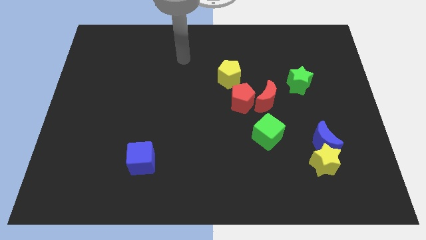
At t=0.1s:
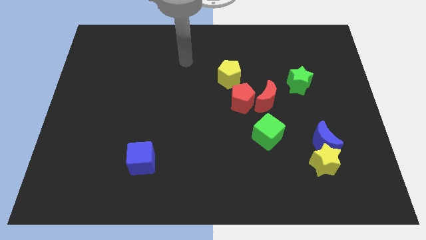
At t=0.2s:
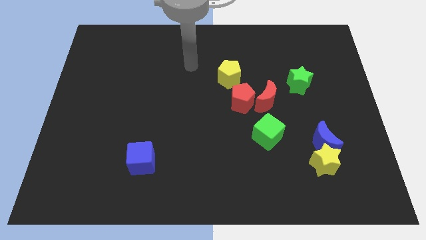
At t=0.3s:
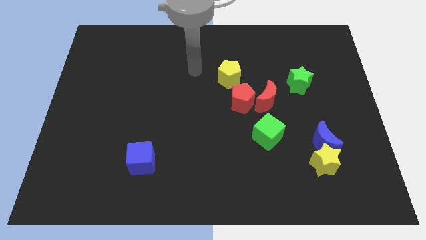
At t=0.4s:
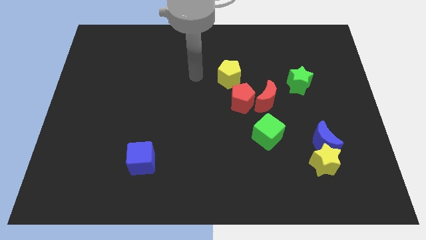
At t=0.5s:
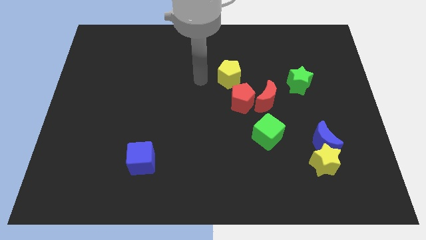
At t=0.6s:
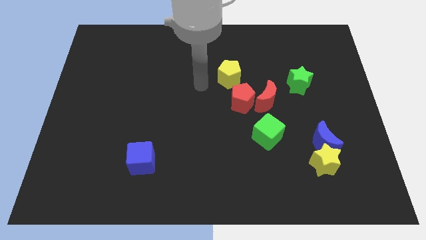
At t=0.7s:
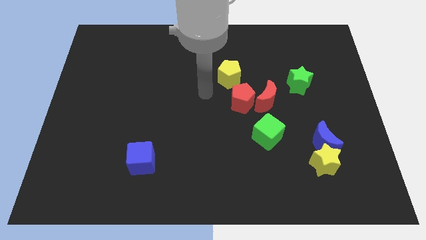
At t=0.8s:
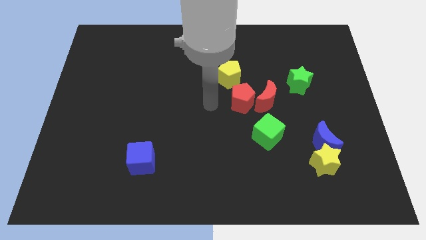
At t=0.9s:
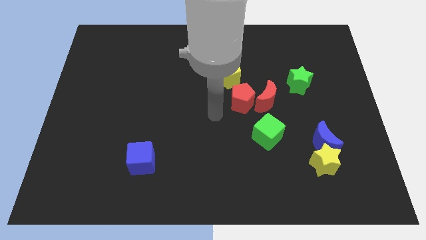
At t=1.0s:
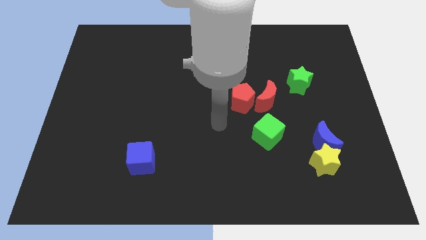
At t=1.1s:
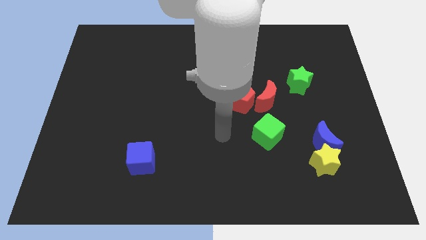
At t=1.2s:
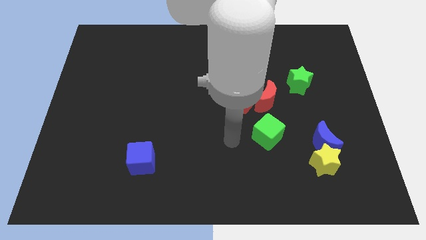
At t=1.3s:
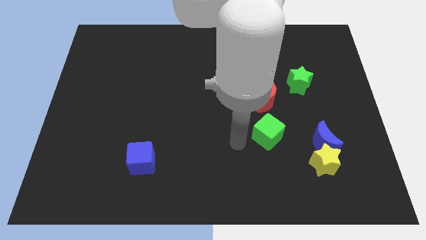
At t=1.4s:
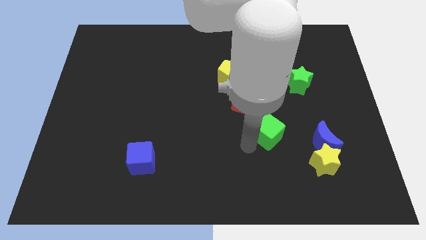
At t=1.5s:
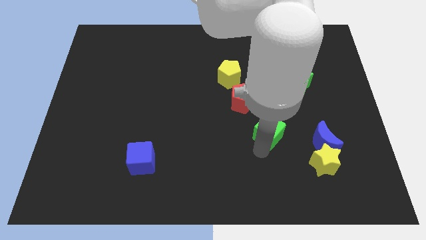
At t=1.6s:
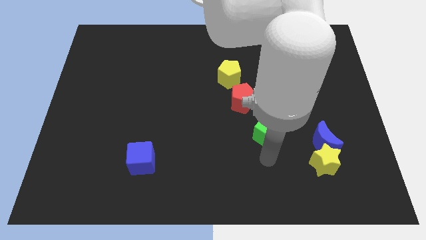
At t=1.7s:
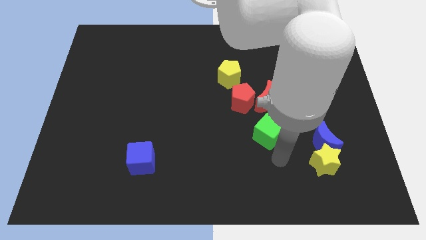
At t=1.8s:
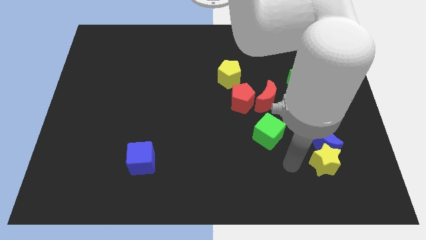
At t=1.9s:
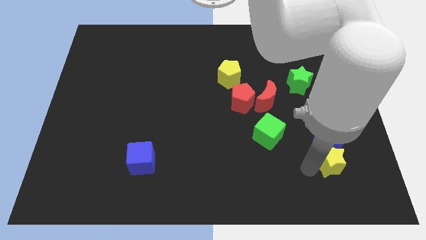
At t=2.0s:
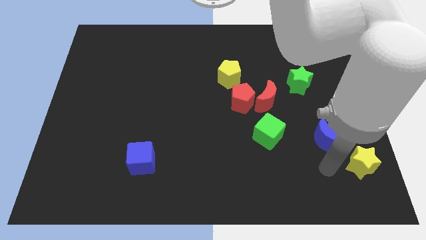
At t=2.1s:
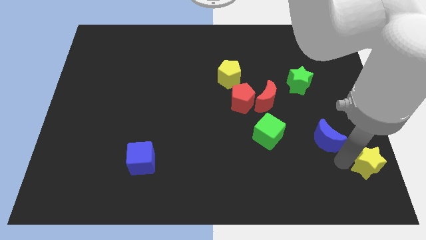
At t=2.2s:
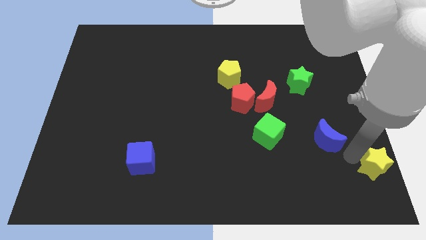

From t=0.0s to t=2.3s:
separate the blue moon from the yellow star

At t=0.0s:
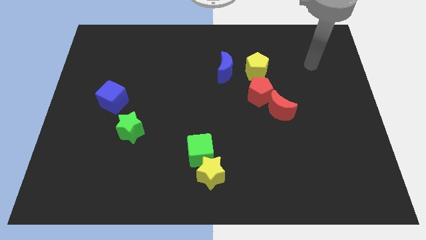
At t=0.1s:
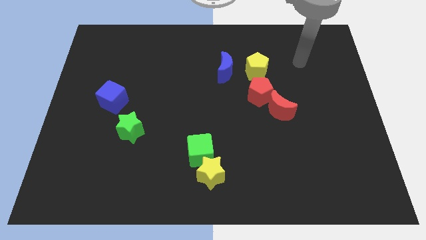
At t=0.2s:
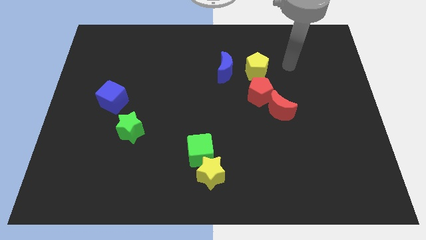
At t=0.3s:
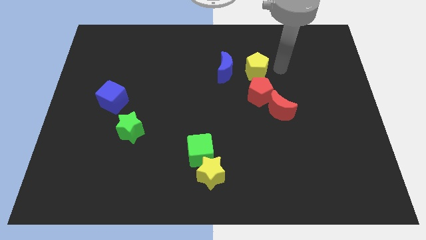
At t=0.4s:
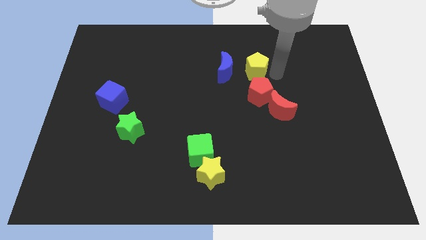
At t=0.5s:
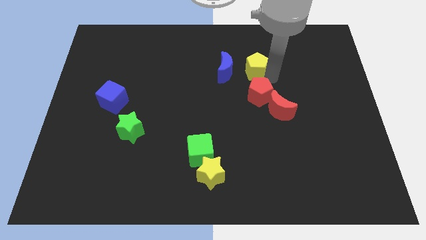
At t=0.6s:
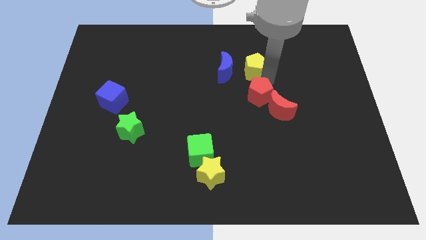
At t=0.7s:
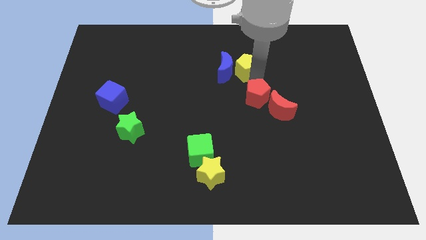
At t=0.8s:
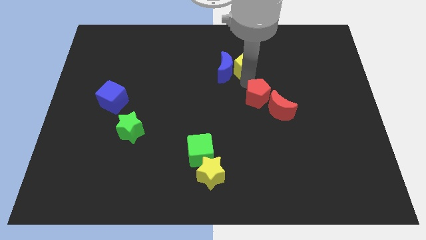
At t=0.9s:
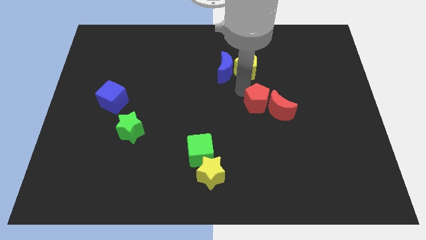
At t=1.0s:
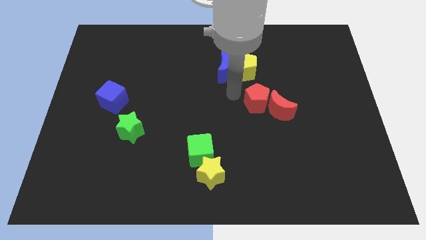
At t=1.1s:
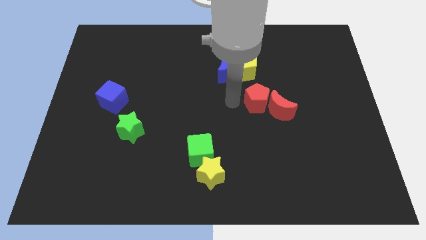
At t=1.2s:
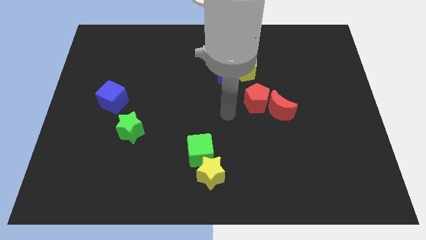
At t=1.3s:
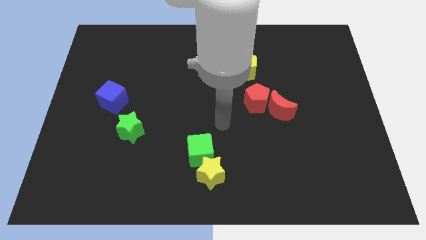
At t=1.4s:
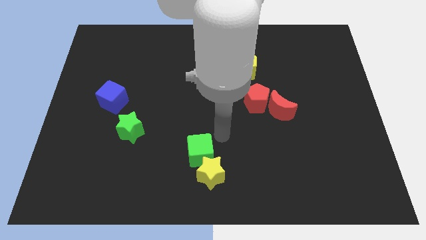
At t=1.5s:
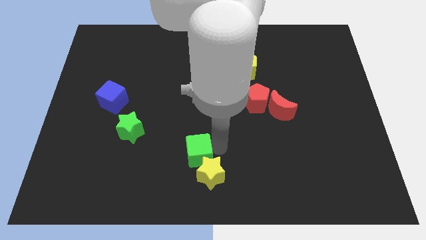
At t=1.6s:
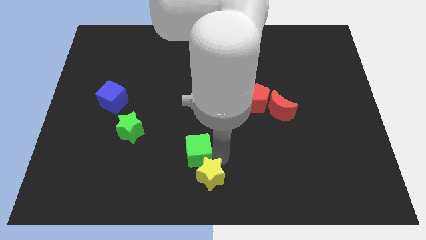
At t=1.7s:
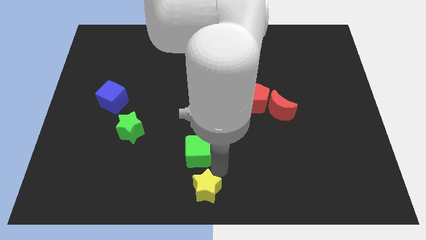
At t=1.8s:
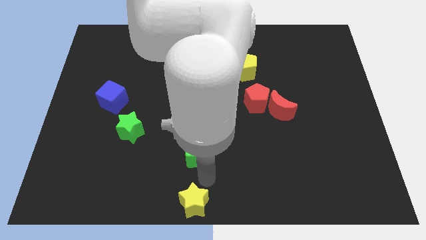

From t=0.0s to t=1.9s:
pull the green cube apart from the yellow star

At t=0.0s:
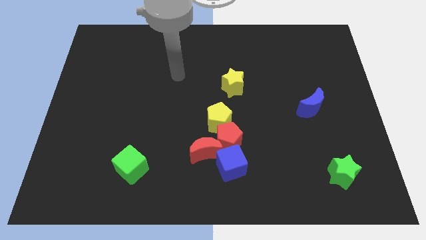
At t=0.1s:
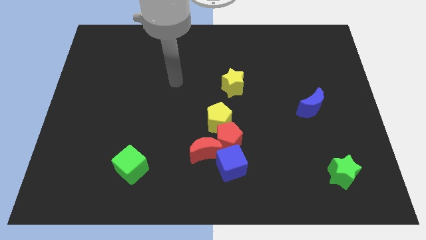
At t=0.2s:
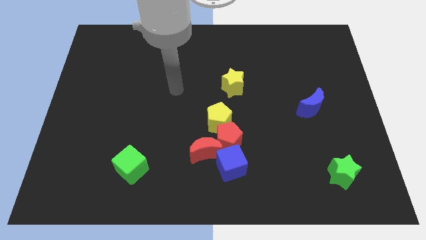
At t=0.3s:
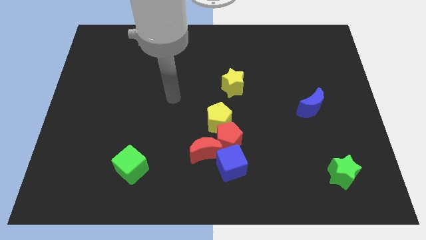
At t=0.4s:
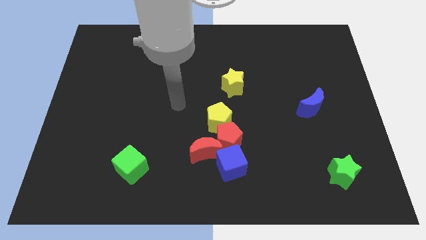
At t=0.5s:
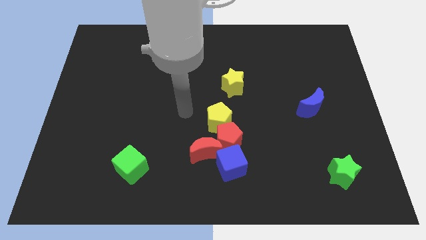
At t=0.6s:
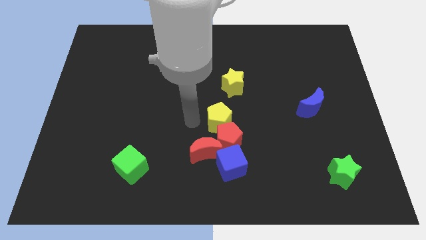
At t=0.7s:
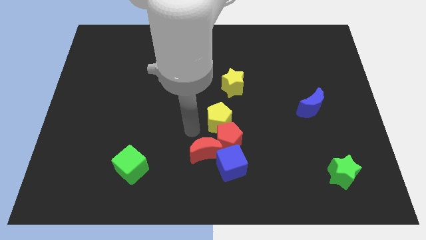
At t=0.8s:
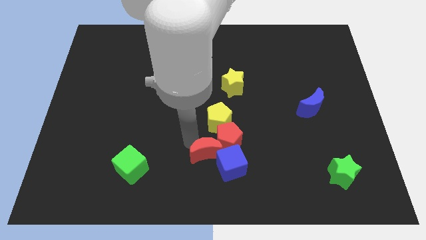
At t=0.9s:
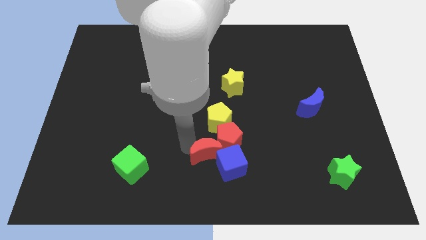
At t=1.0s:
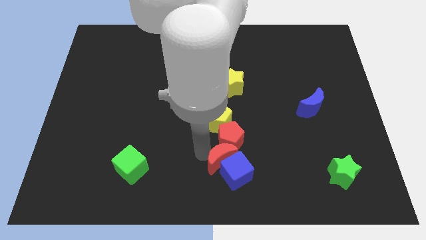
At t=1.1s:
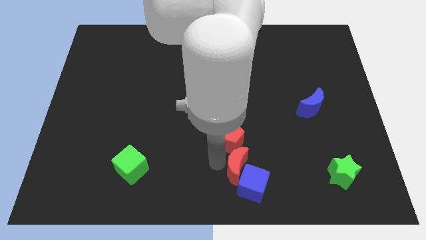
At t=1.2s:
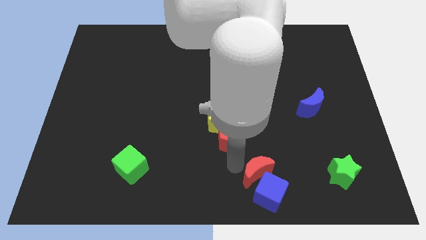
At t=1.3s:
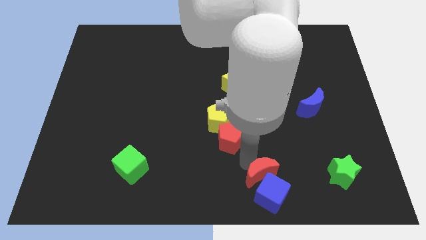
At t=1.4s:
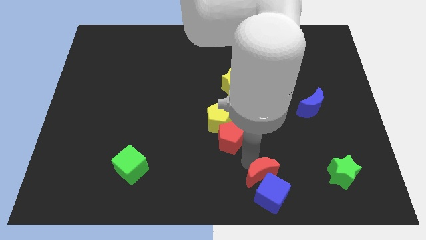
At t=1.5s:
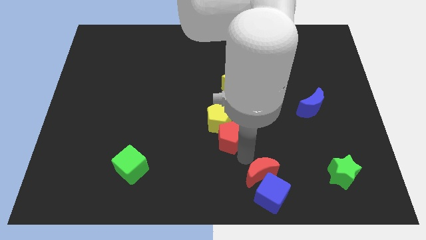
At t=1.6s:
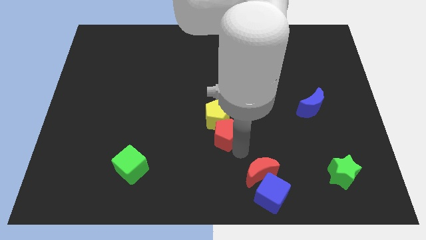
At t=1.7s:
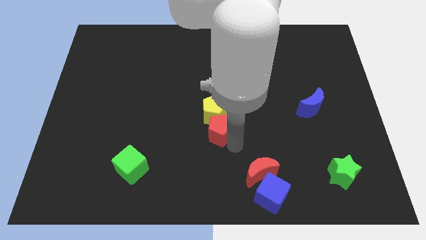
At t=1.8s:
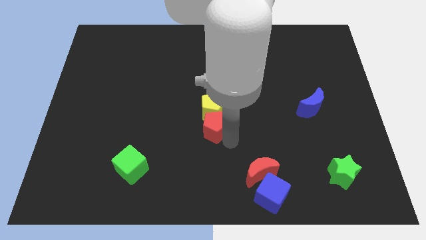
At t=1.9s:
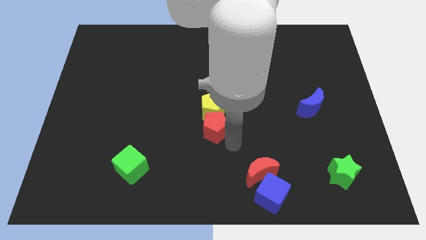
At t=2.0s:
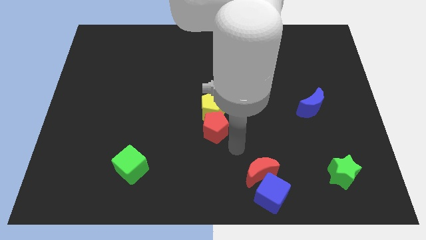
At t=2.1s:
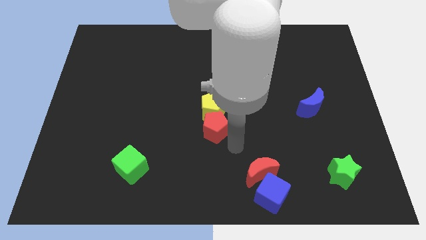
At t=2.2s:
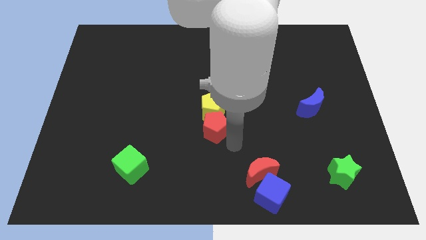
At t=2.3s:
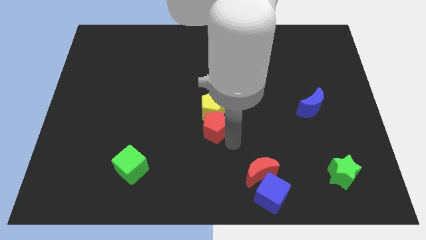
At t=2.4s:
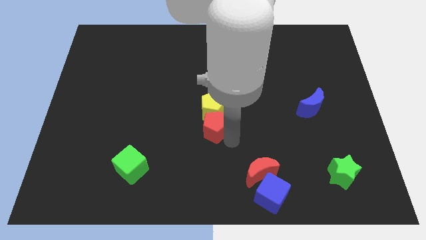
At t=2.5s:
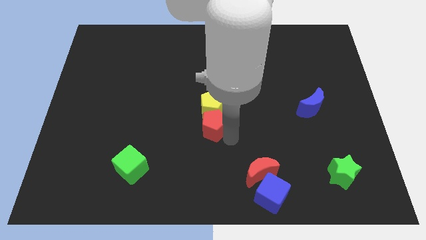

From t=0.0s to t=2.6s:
move the red pentagon away from the group

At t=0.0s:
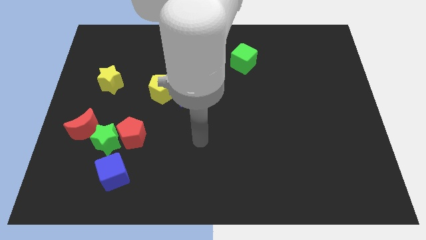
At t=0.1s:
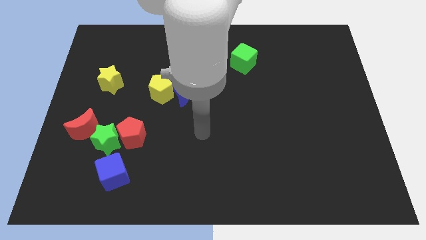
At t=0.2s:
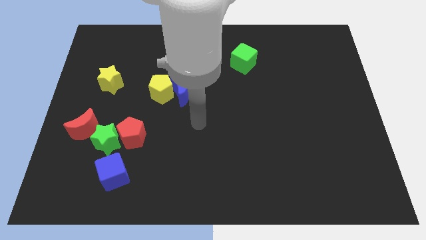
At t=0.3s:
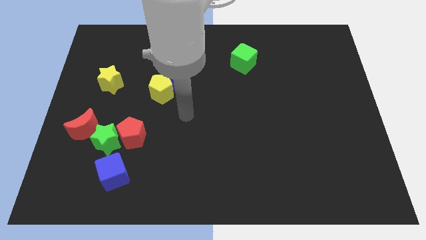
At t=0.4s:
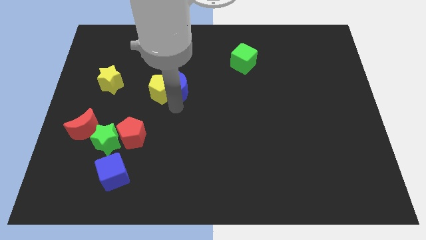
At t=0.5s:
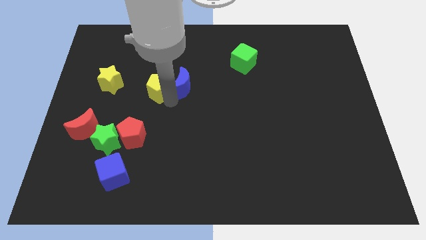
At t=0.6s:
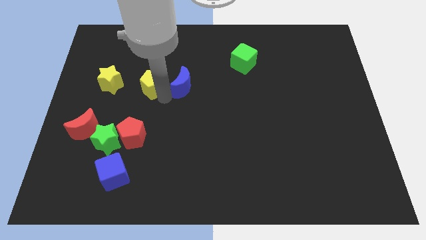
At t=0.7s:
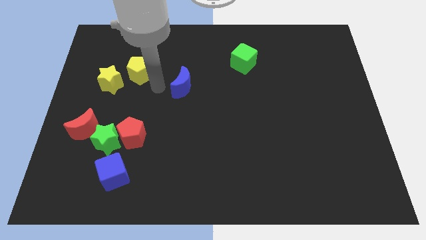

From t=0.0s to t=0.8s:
separate the blue moon from the yellow pentagon

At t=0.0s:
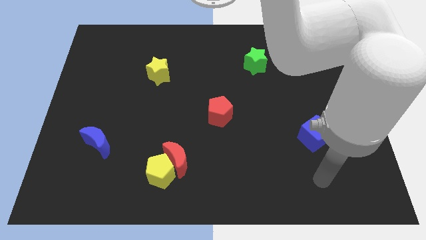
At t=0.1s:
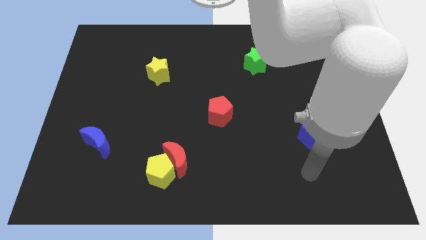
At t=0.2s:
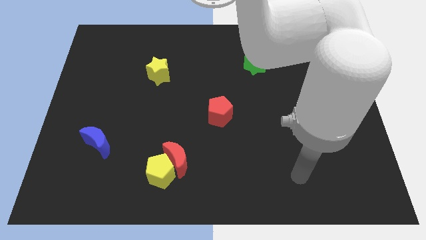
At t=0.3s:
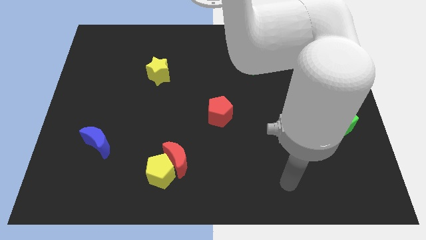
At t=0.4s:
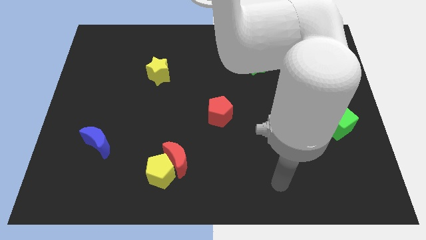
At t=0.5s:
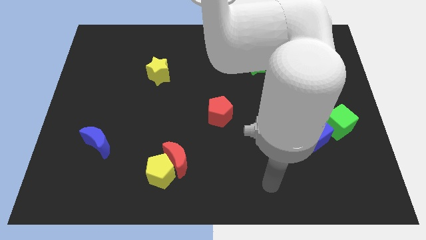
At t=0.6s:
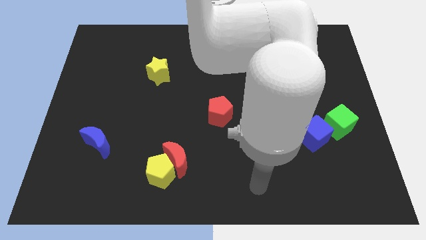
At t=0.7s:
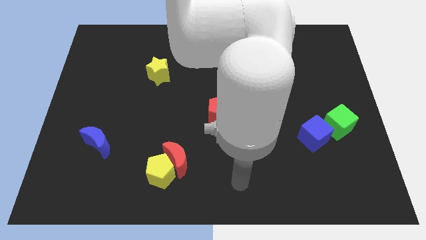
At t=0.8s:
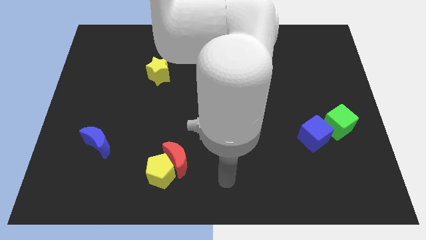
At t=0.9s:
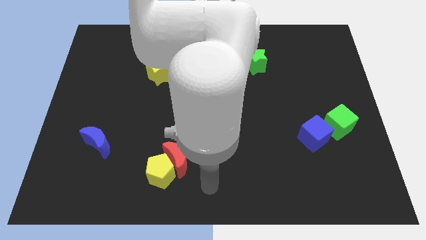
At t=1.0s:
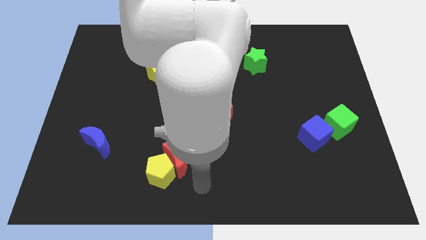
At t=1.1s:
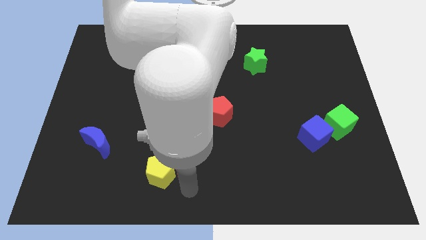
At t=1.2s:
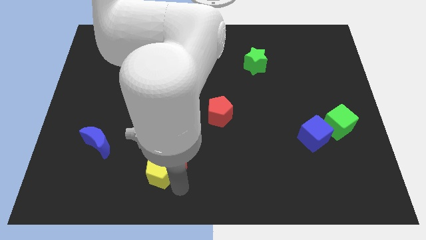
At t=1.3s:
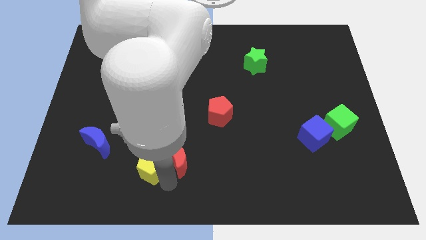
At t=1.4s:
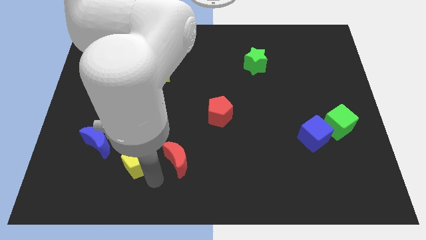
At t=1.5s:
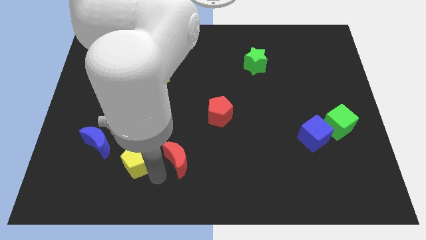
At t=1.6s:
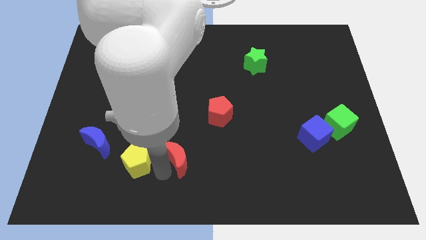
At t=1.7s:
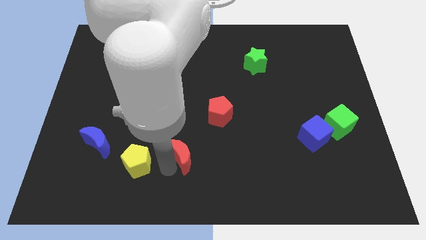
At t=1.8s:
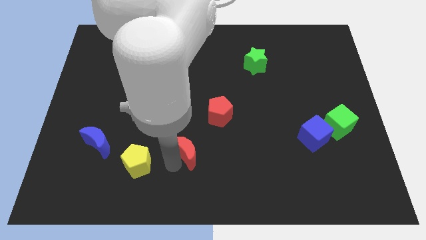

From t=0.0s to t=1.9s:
separate the red moon from the yellow pentagon
